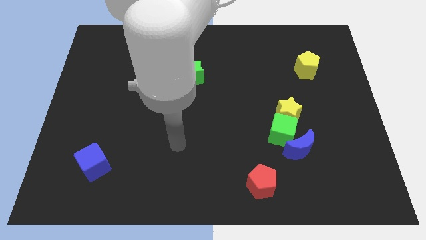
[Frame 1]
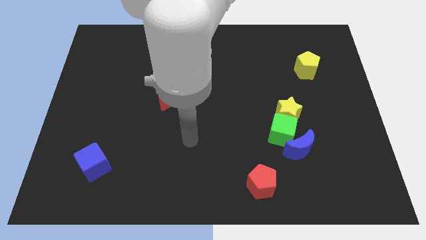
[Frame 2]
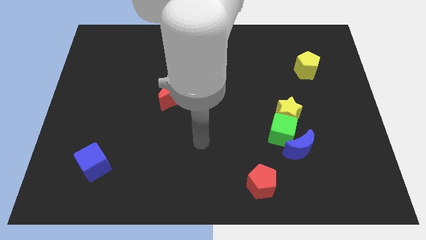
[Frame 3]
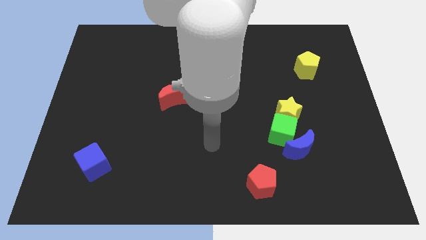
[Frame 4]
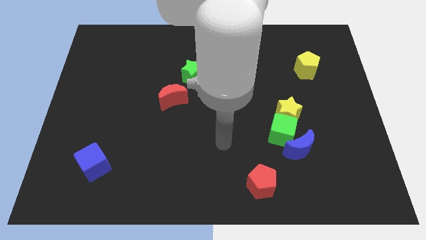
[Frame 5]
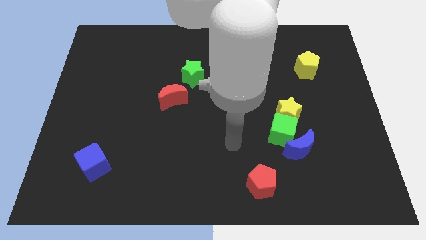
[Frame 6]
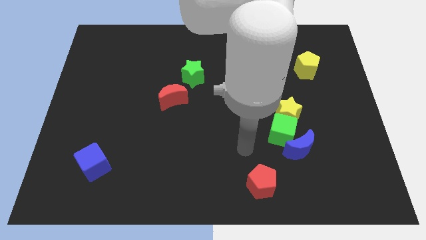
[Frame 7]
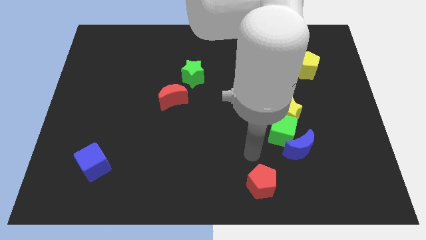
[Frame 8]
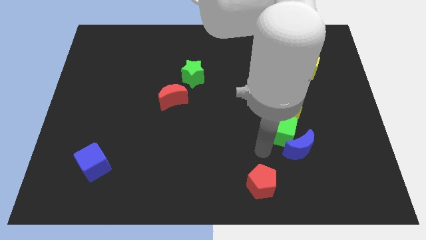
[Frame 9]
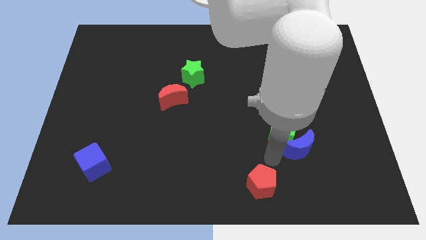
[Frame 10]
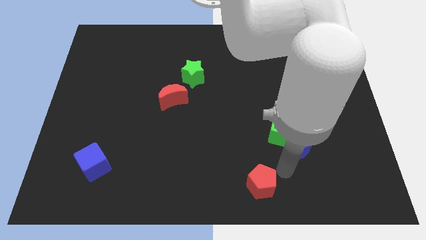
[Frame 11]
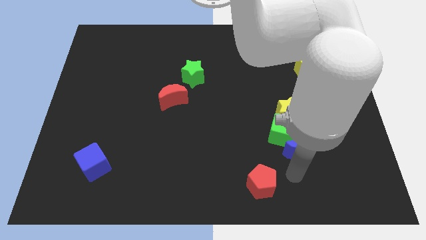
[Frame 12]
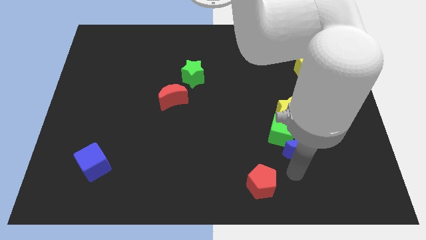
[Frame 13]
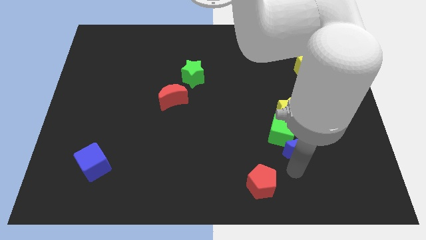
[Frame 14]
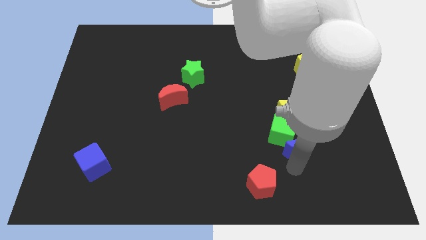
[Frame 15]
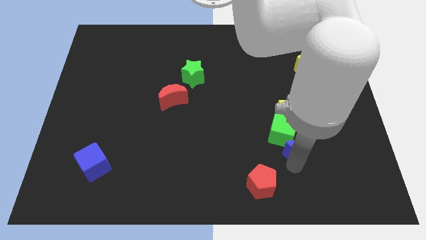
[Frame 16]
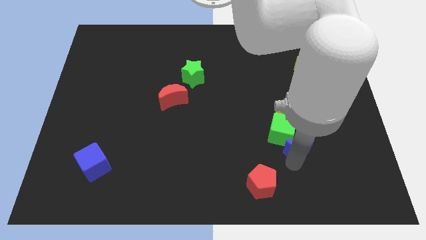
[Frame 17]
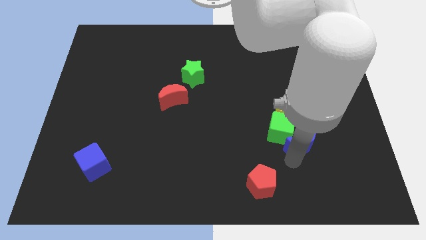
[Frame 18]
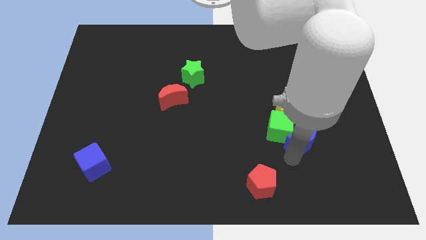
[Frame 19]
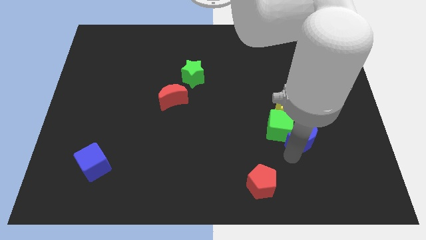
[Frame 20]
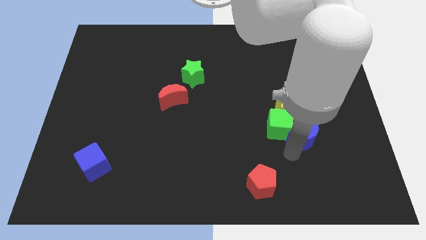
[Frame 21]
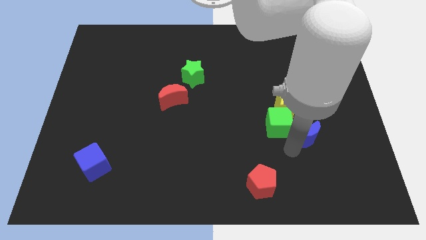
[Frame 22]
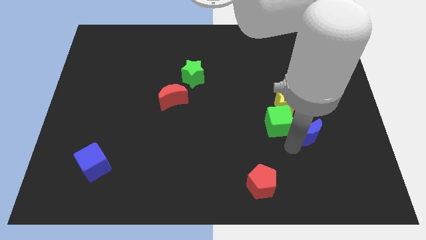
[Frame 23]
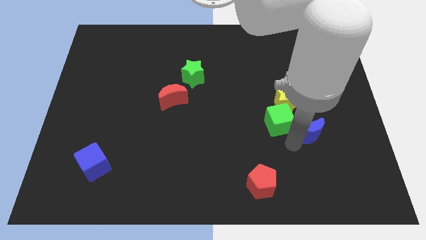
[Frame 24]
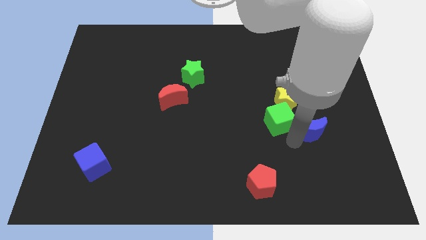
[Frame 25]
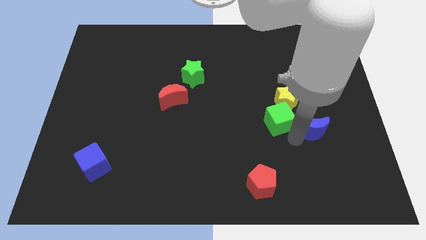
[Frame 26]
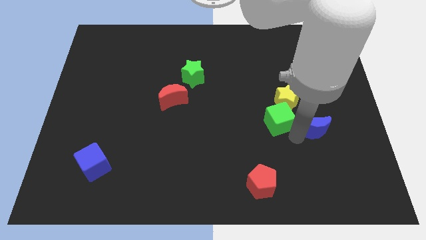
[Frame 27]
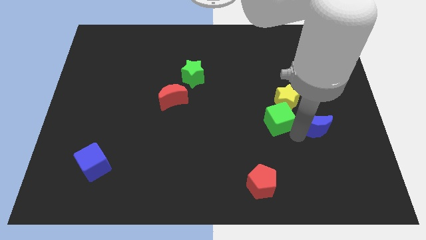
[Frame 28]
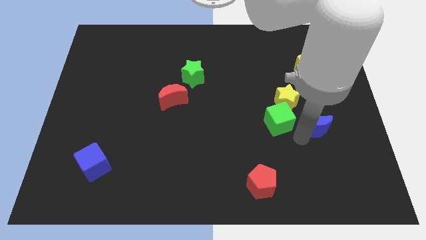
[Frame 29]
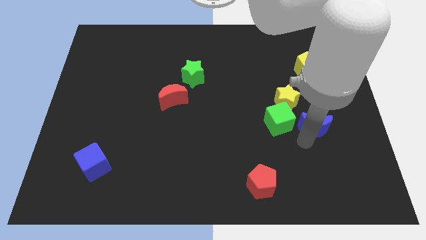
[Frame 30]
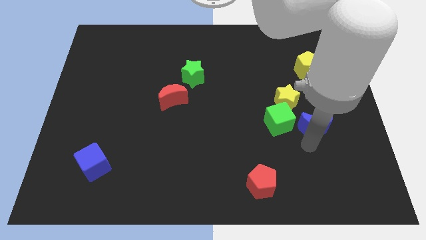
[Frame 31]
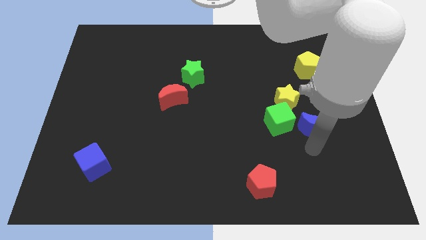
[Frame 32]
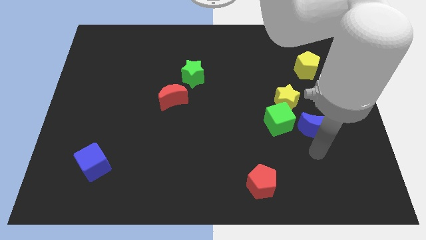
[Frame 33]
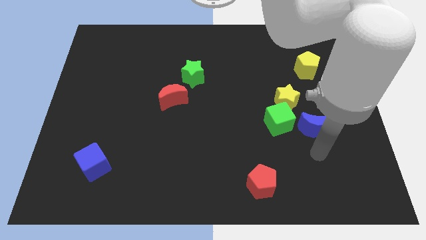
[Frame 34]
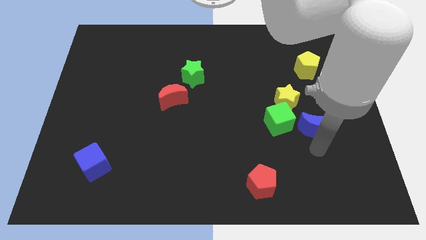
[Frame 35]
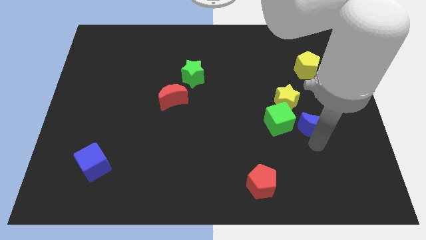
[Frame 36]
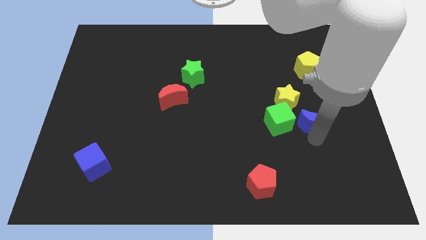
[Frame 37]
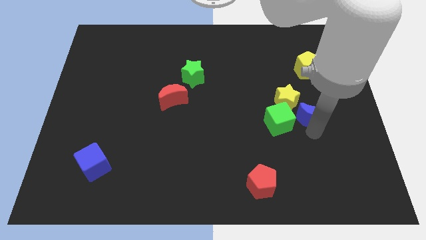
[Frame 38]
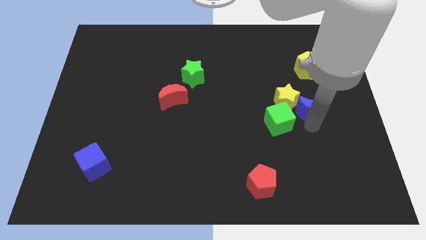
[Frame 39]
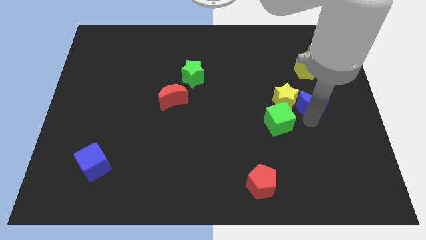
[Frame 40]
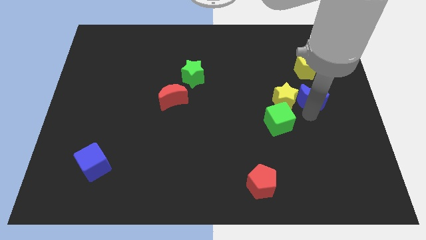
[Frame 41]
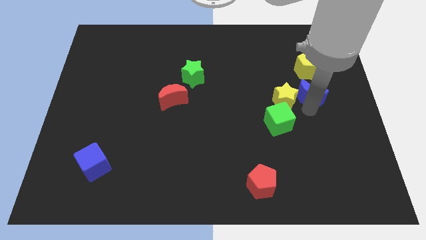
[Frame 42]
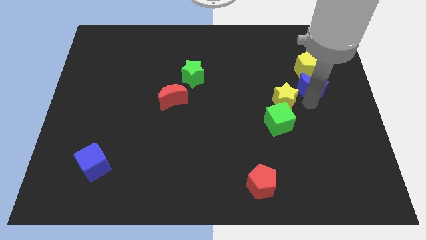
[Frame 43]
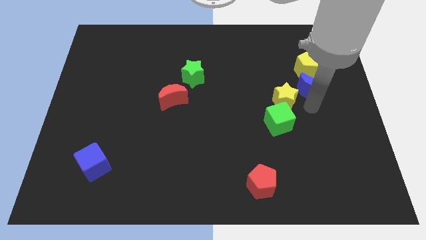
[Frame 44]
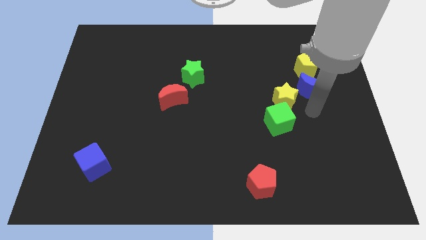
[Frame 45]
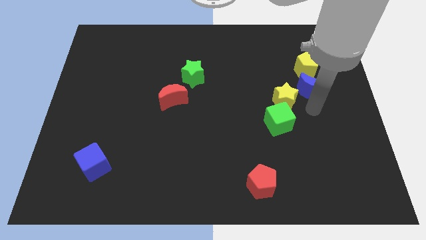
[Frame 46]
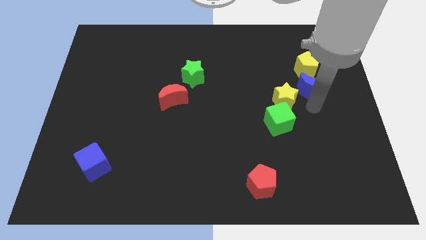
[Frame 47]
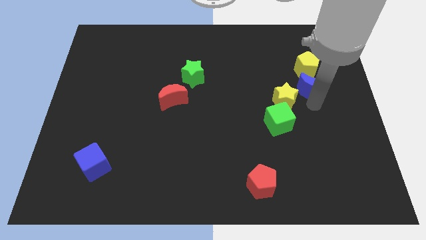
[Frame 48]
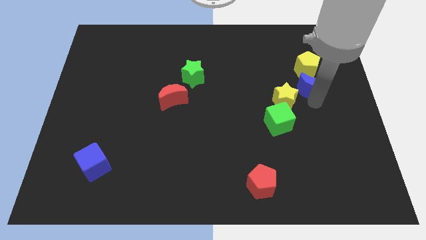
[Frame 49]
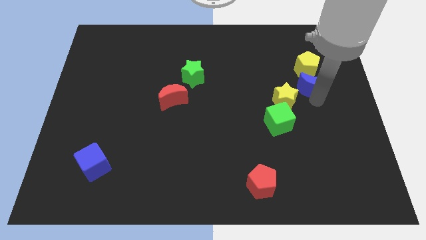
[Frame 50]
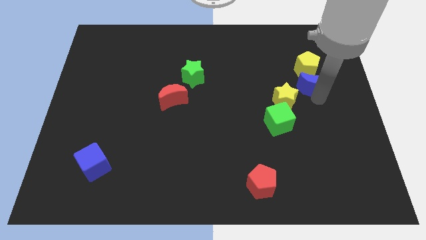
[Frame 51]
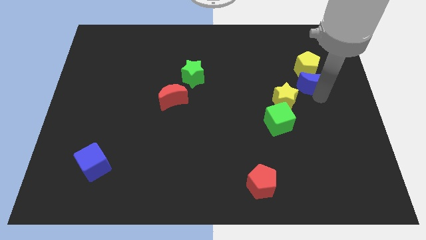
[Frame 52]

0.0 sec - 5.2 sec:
put the blue moon next to the yellow pentagon

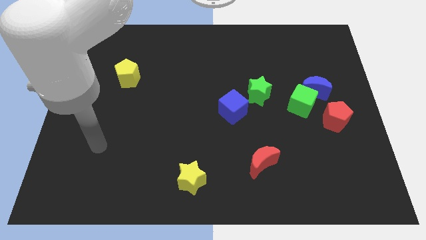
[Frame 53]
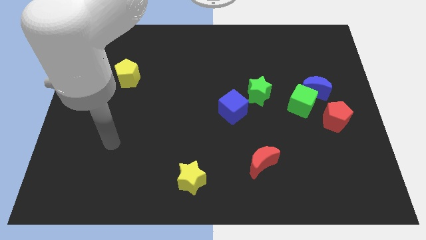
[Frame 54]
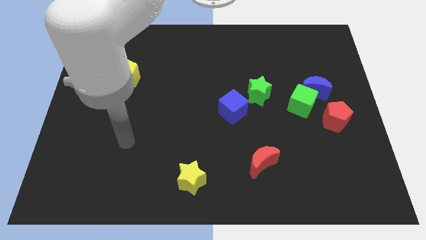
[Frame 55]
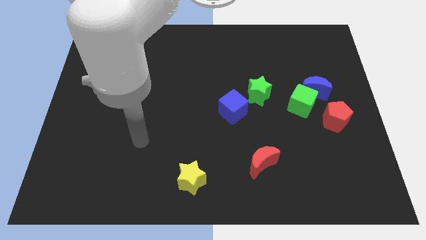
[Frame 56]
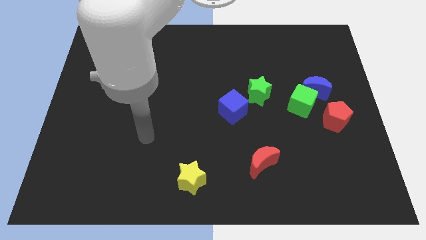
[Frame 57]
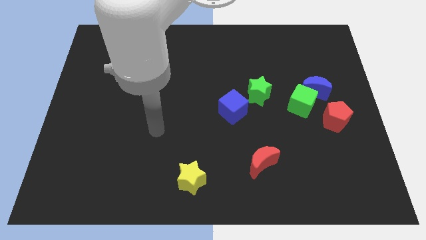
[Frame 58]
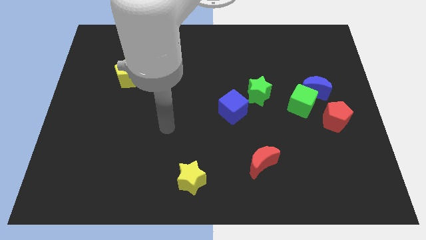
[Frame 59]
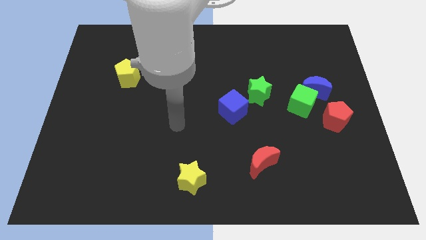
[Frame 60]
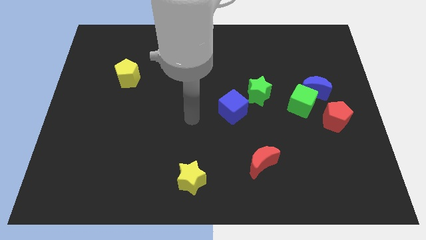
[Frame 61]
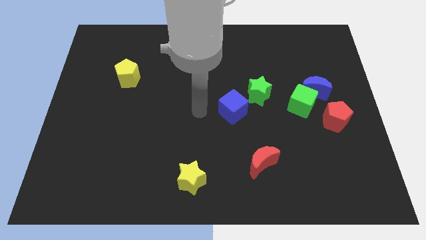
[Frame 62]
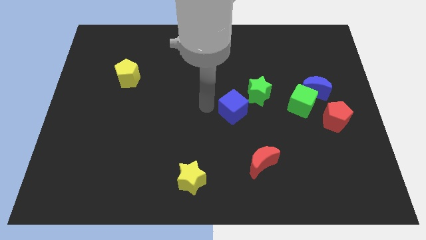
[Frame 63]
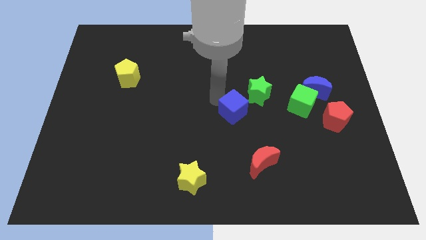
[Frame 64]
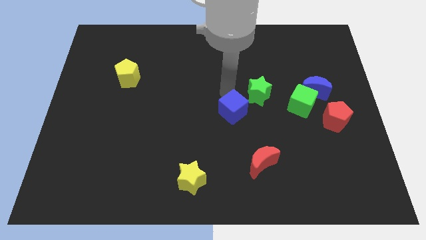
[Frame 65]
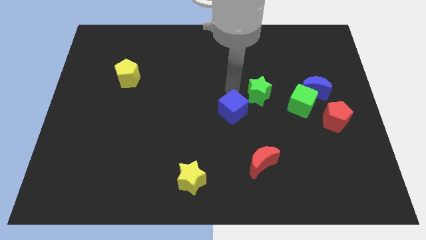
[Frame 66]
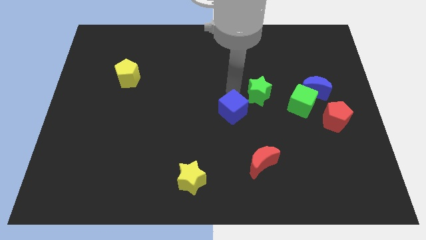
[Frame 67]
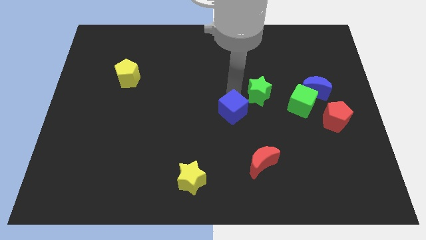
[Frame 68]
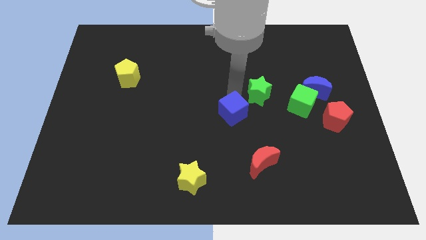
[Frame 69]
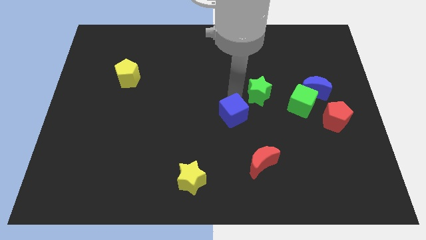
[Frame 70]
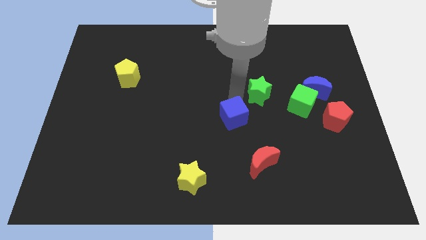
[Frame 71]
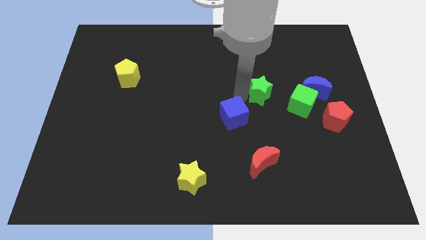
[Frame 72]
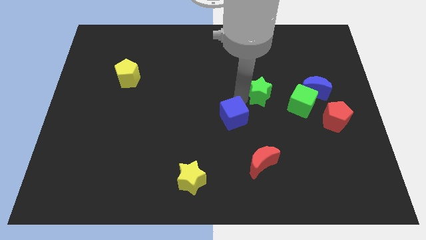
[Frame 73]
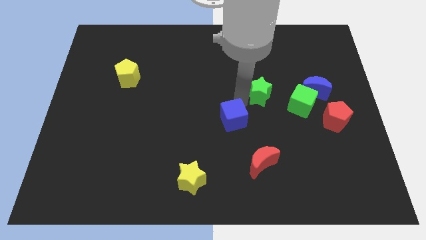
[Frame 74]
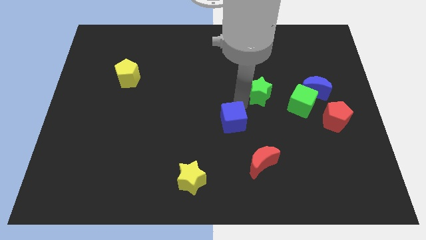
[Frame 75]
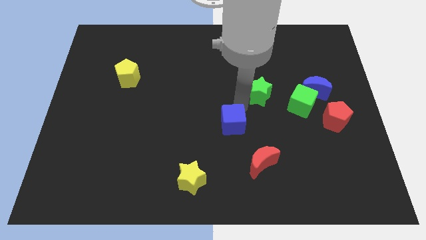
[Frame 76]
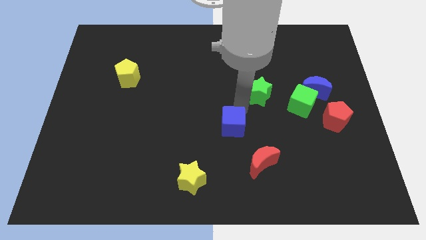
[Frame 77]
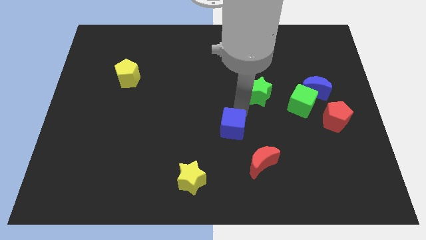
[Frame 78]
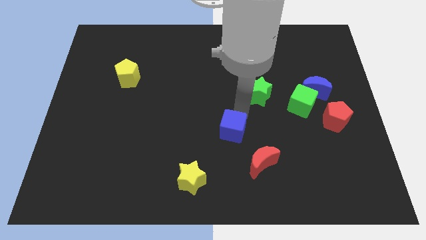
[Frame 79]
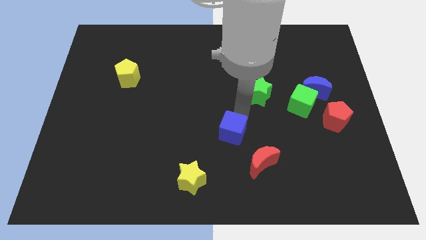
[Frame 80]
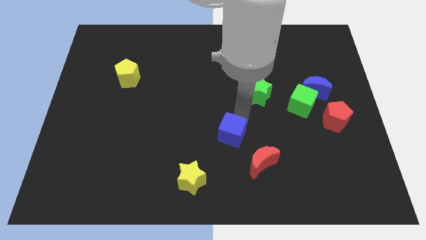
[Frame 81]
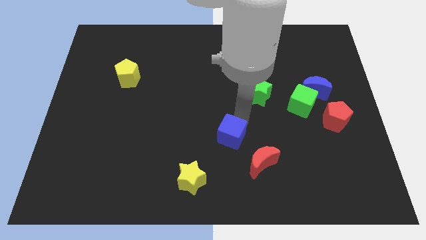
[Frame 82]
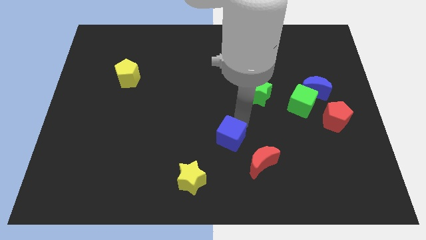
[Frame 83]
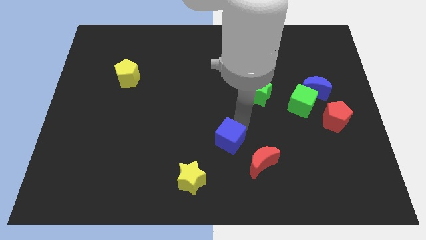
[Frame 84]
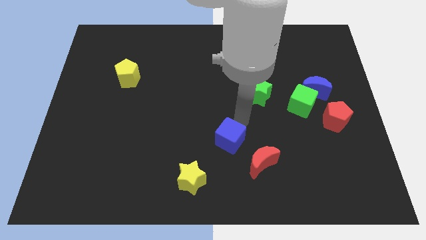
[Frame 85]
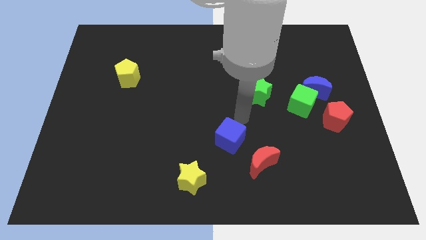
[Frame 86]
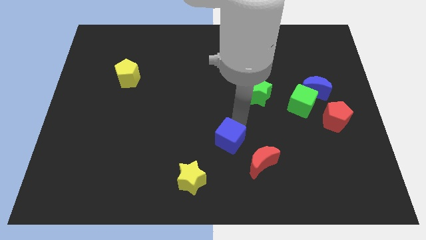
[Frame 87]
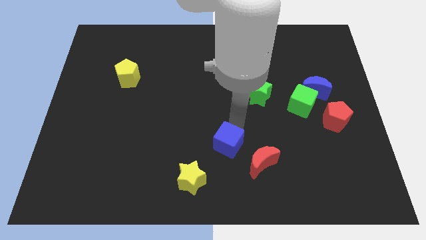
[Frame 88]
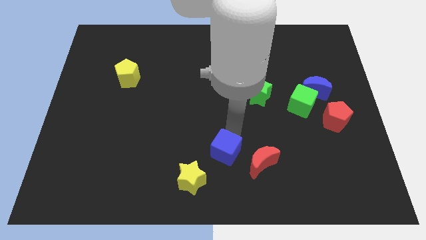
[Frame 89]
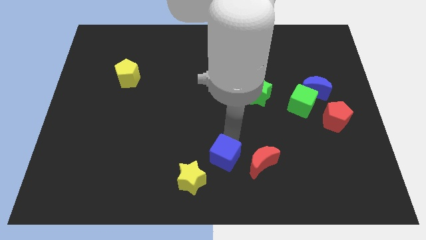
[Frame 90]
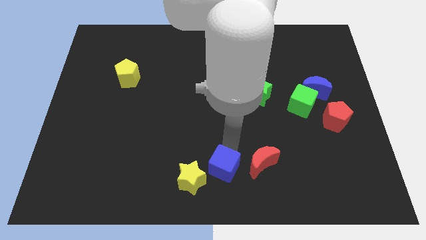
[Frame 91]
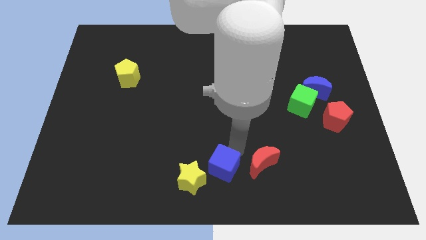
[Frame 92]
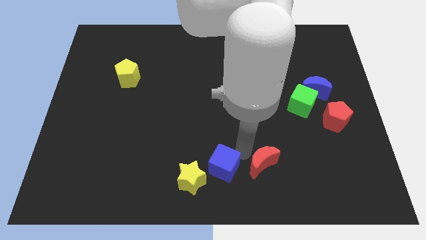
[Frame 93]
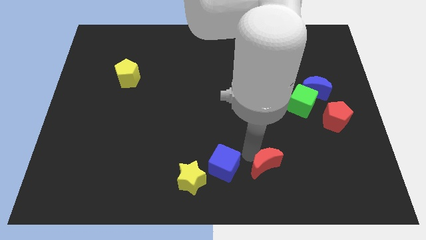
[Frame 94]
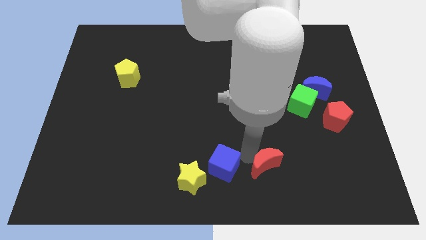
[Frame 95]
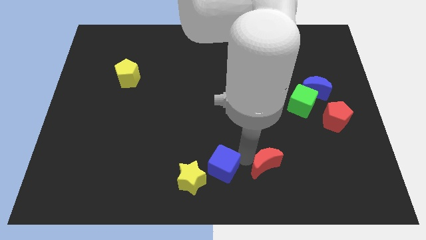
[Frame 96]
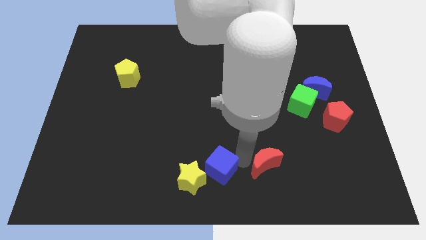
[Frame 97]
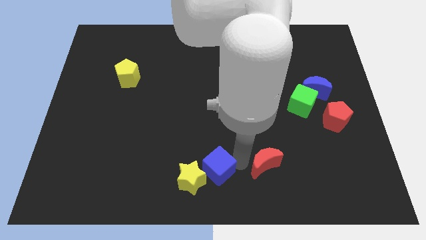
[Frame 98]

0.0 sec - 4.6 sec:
push the blue cube to the yellow star
